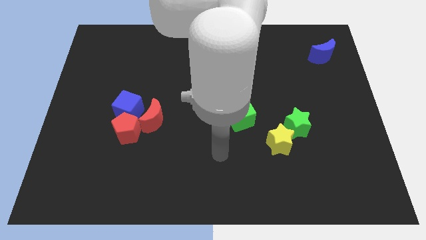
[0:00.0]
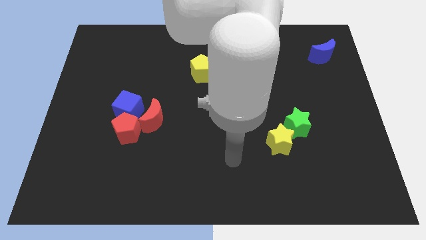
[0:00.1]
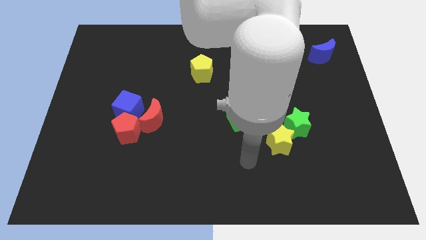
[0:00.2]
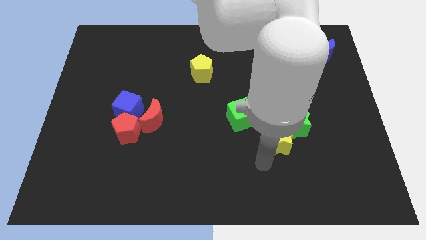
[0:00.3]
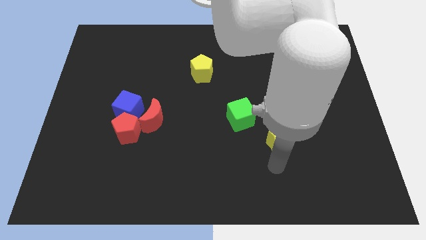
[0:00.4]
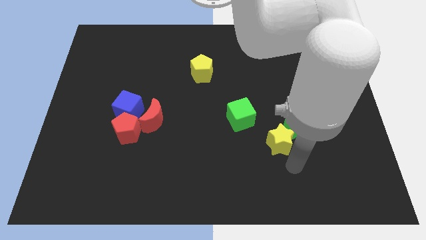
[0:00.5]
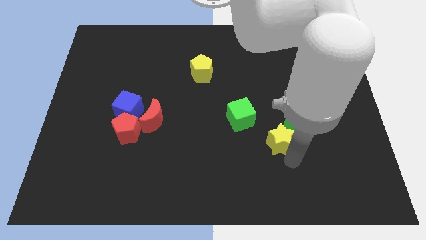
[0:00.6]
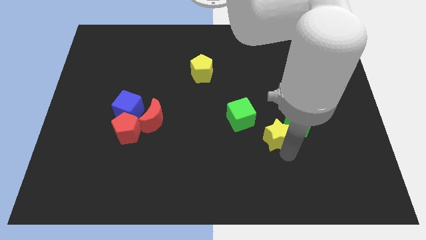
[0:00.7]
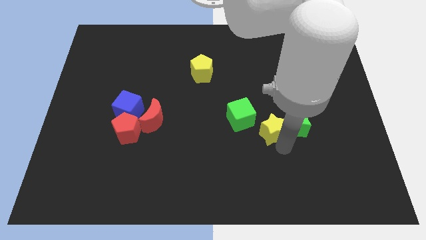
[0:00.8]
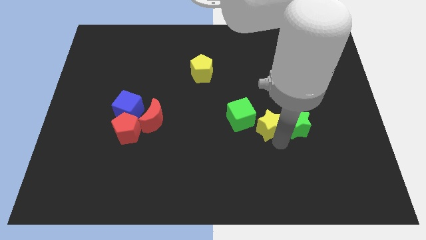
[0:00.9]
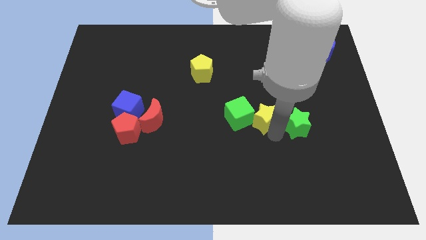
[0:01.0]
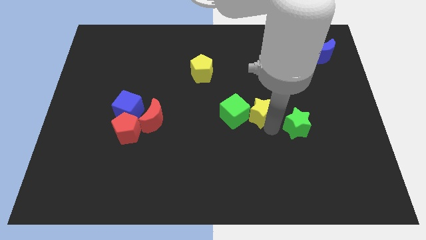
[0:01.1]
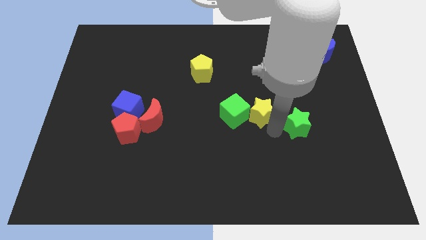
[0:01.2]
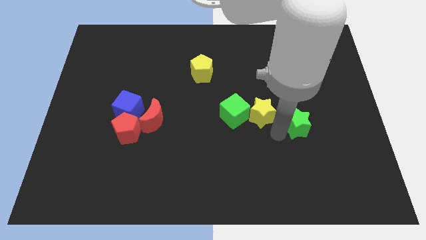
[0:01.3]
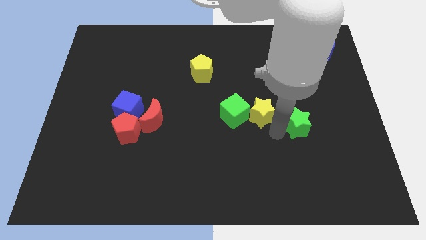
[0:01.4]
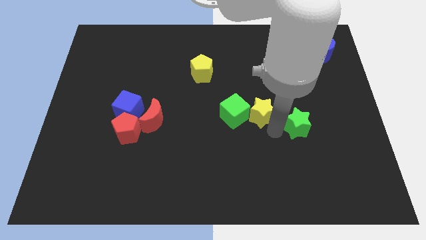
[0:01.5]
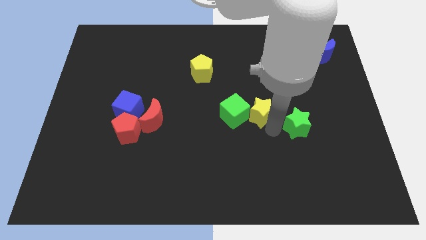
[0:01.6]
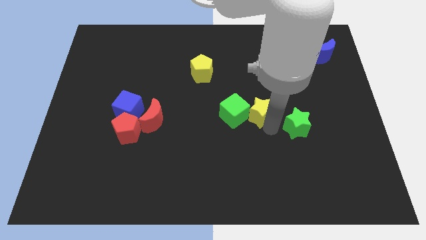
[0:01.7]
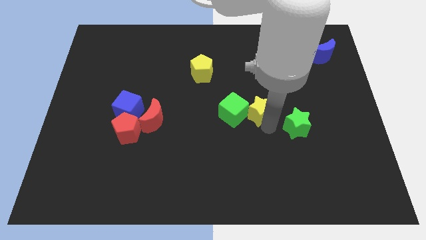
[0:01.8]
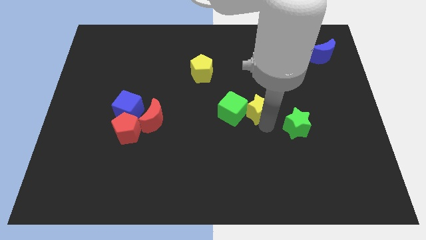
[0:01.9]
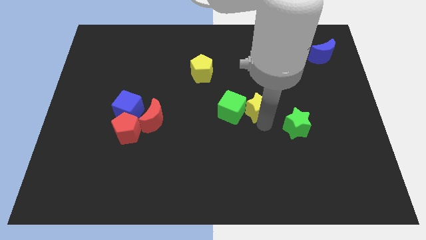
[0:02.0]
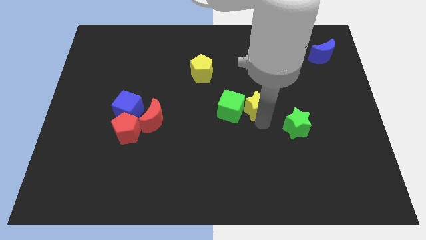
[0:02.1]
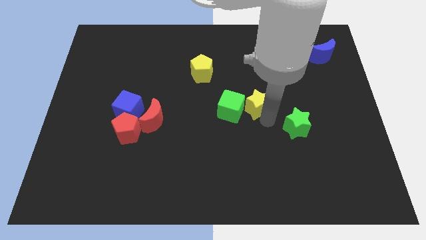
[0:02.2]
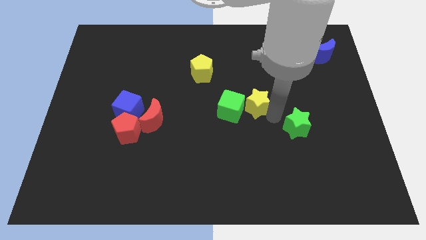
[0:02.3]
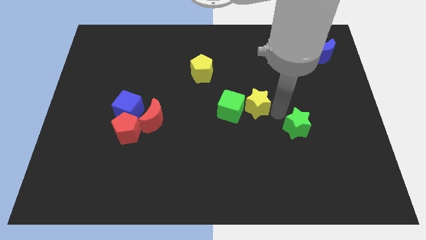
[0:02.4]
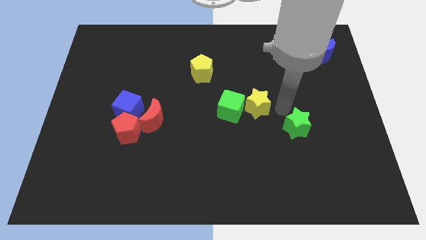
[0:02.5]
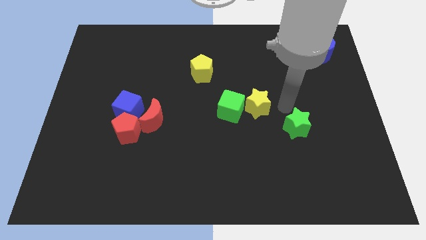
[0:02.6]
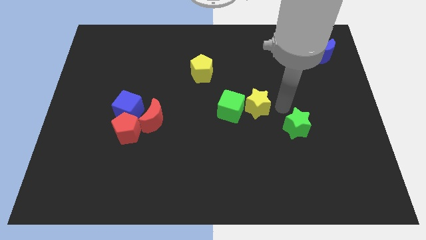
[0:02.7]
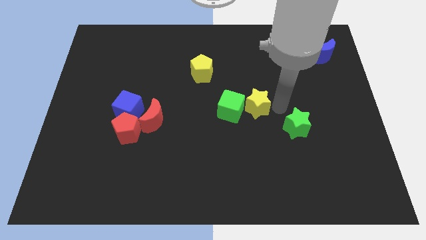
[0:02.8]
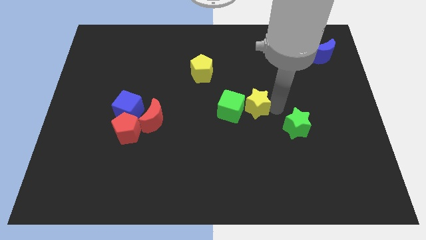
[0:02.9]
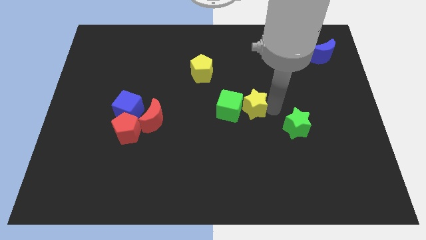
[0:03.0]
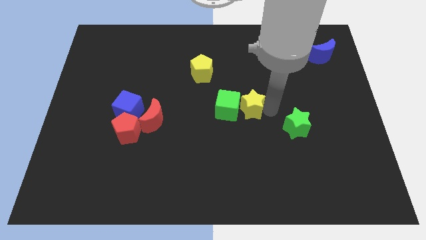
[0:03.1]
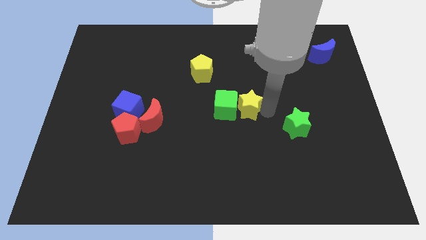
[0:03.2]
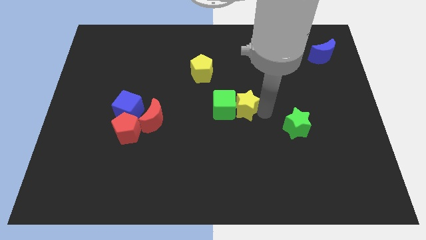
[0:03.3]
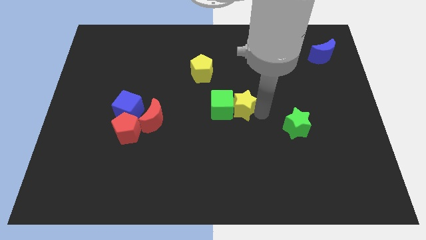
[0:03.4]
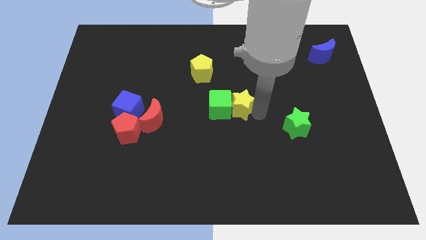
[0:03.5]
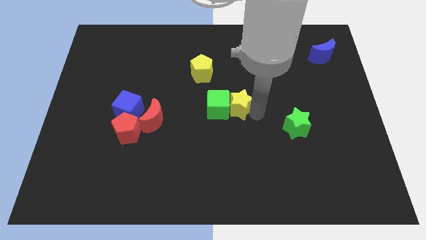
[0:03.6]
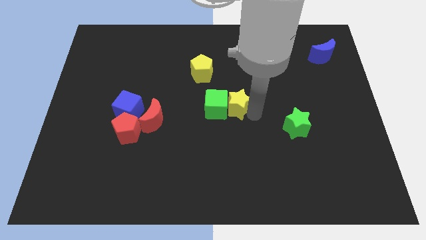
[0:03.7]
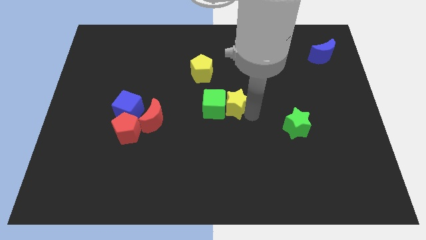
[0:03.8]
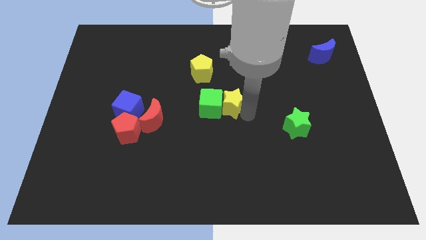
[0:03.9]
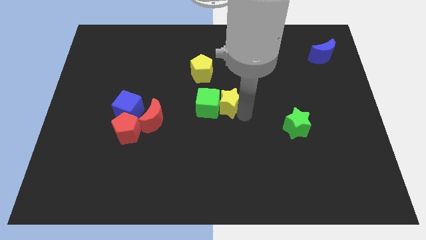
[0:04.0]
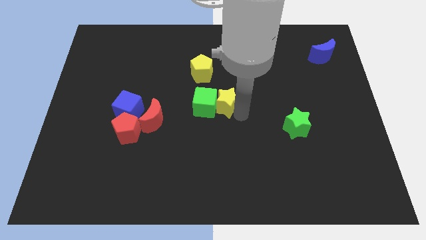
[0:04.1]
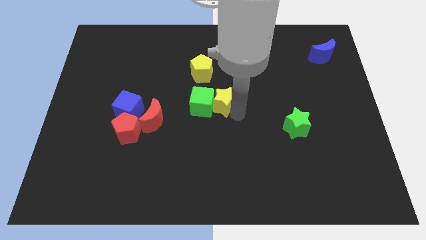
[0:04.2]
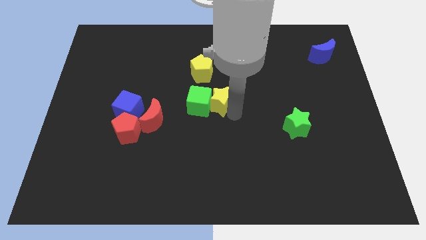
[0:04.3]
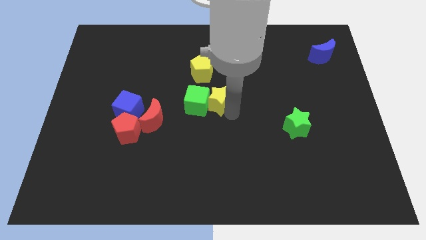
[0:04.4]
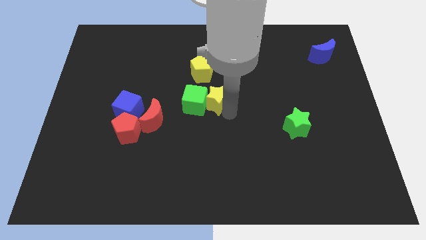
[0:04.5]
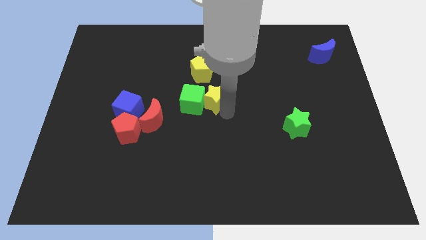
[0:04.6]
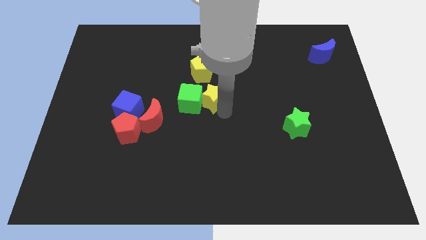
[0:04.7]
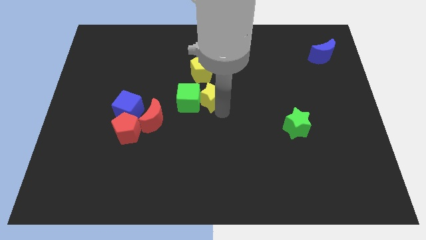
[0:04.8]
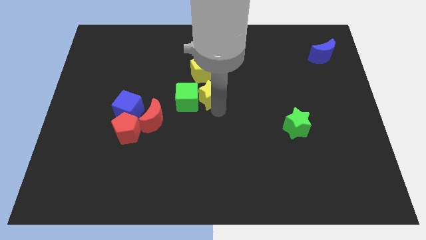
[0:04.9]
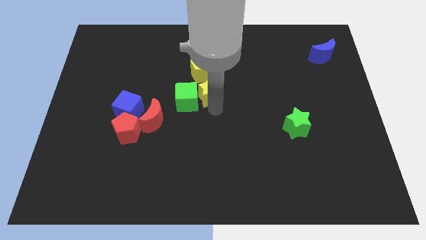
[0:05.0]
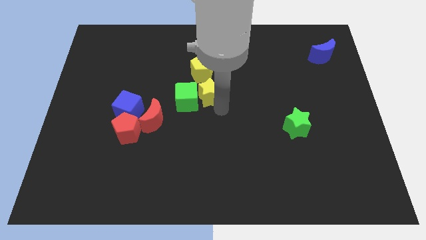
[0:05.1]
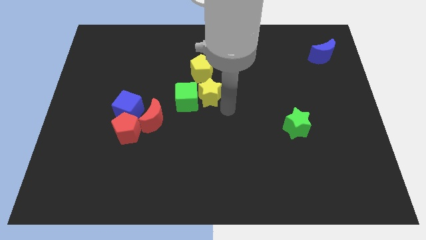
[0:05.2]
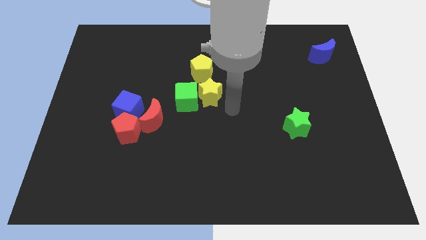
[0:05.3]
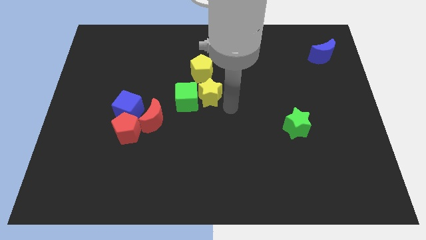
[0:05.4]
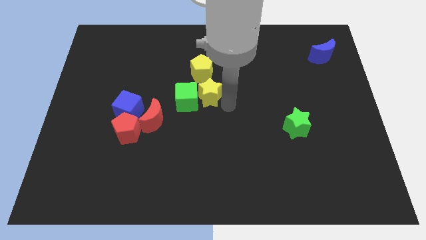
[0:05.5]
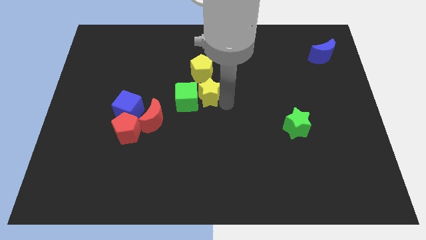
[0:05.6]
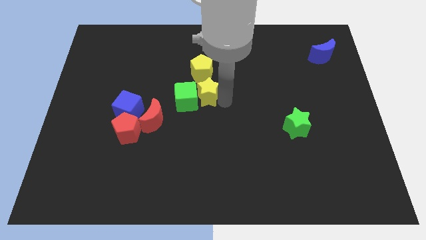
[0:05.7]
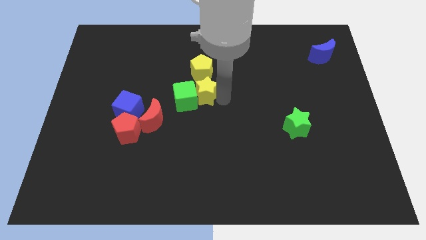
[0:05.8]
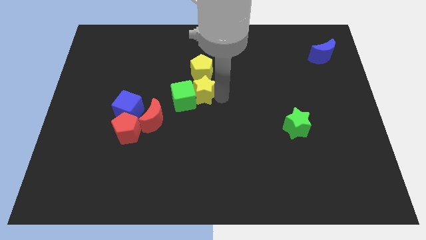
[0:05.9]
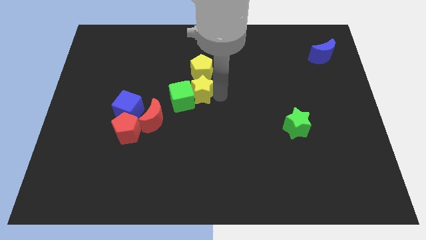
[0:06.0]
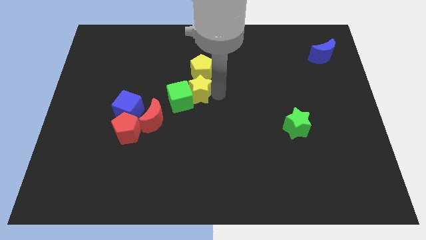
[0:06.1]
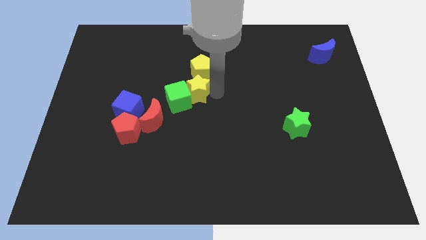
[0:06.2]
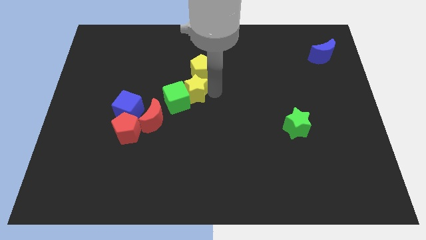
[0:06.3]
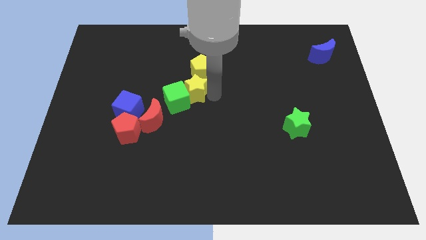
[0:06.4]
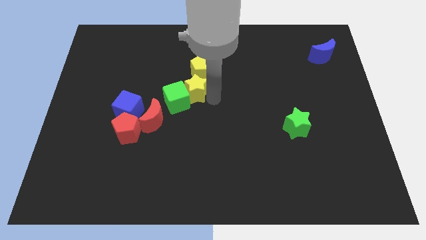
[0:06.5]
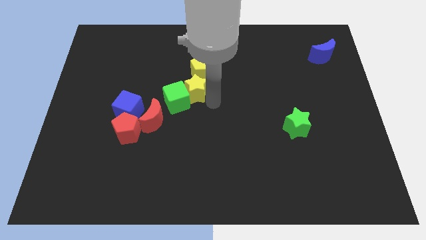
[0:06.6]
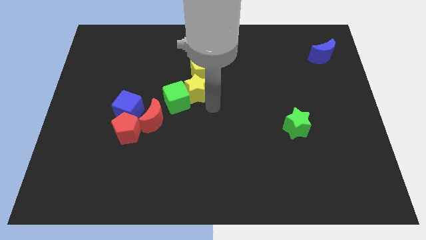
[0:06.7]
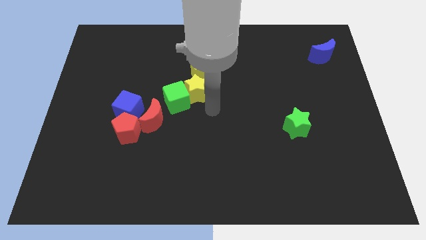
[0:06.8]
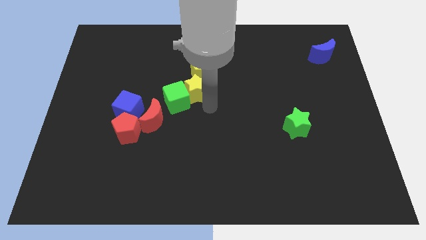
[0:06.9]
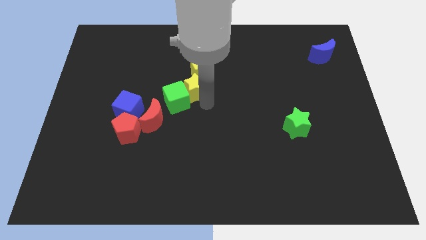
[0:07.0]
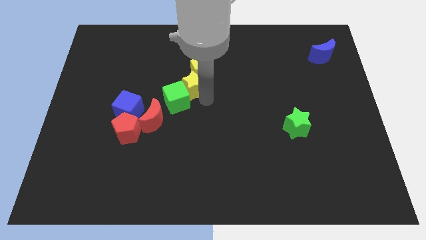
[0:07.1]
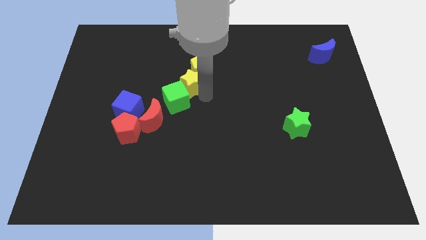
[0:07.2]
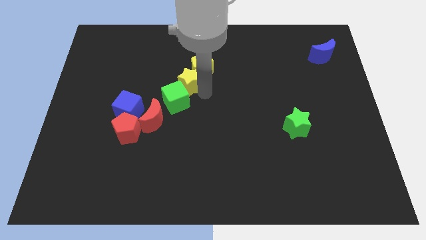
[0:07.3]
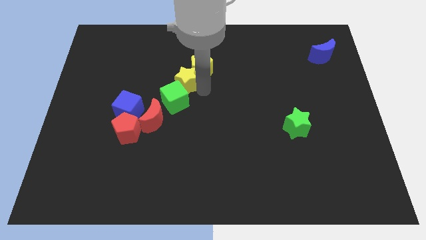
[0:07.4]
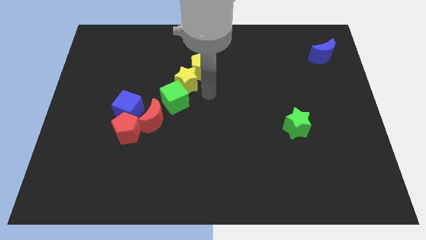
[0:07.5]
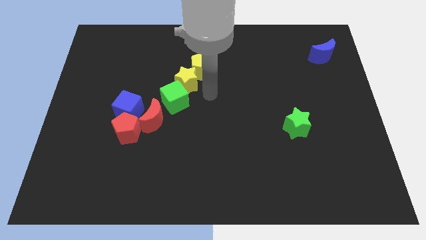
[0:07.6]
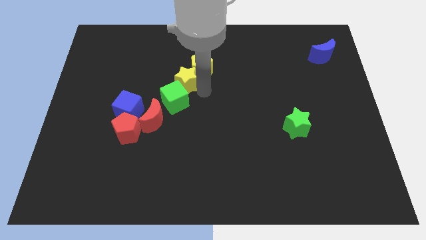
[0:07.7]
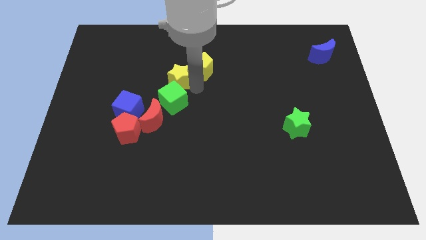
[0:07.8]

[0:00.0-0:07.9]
put the yellow star left of the yellow pentagon
